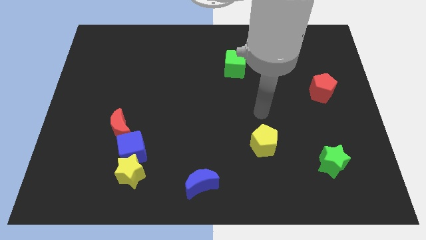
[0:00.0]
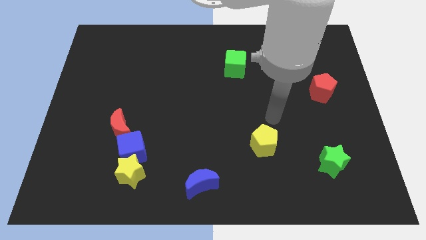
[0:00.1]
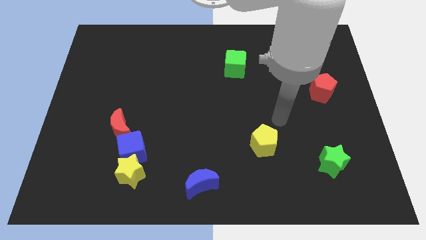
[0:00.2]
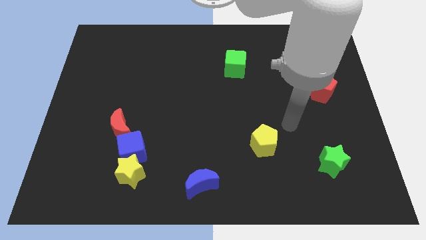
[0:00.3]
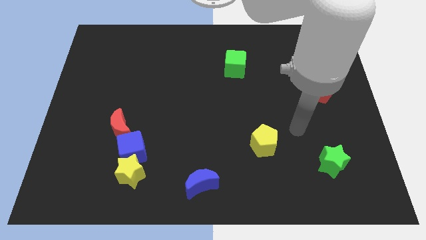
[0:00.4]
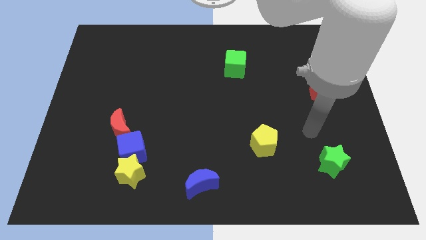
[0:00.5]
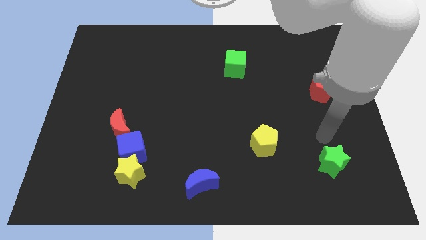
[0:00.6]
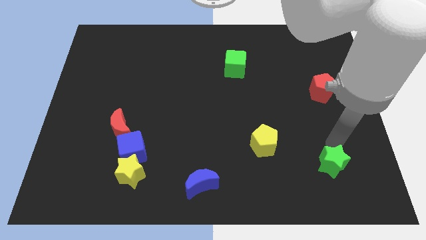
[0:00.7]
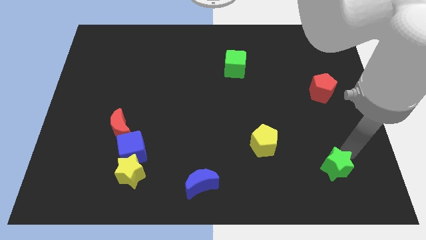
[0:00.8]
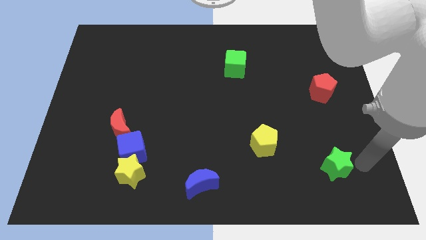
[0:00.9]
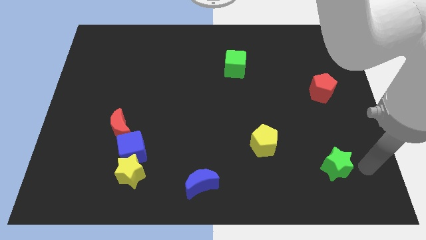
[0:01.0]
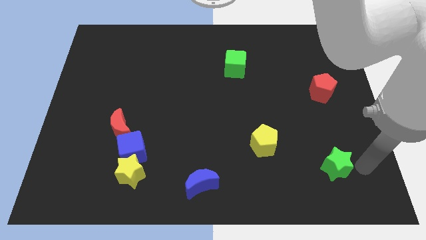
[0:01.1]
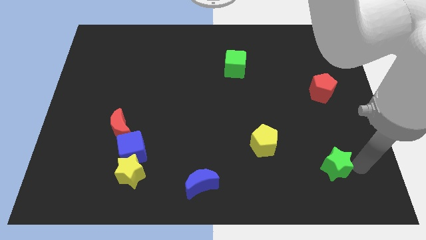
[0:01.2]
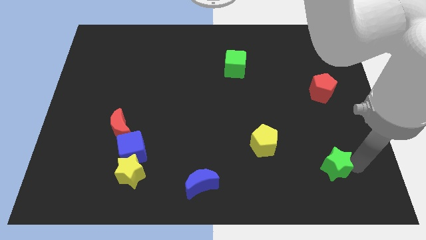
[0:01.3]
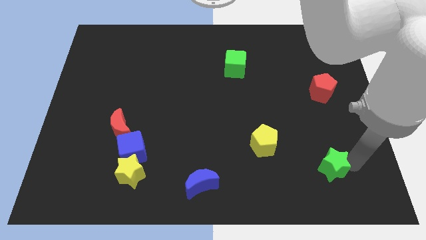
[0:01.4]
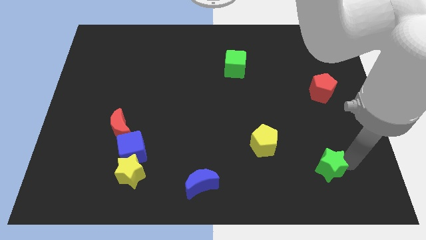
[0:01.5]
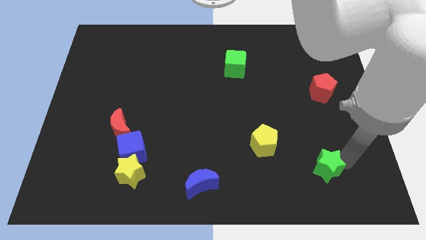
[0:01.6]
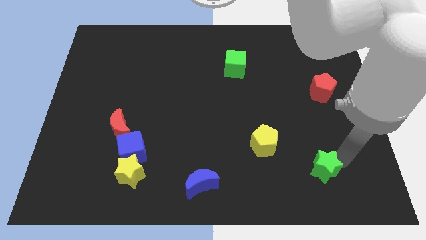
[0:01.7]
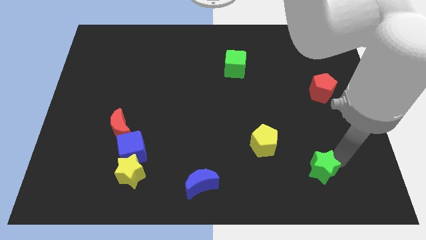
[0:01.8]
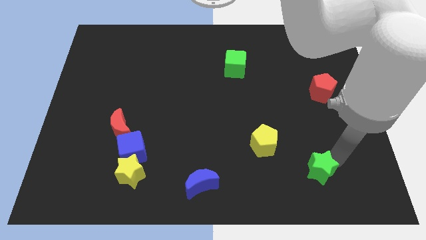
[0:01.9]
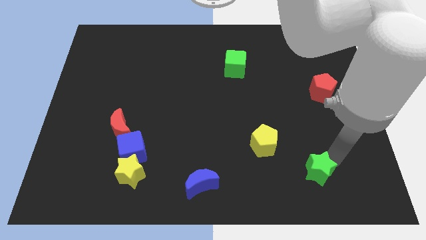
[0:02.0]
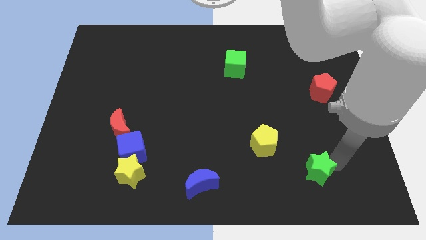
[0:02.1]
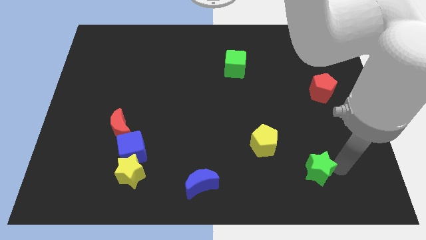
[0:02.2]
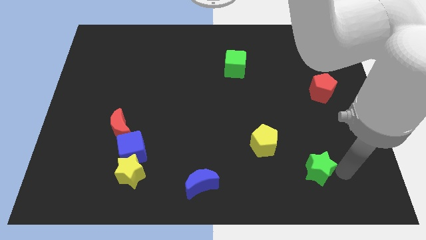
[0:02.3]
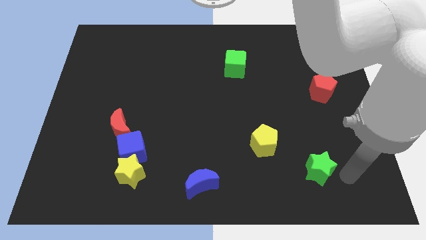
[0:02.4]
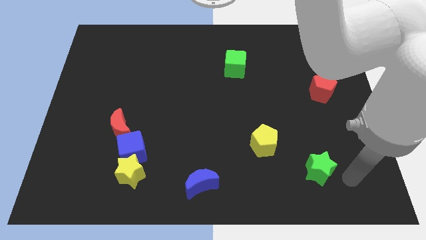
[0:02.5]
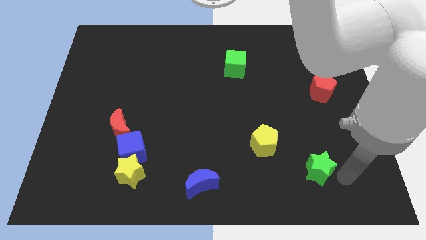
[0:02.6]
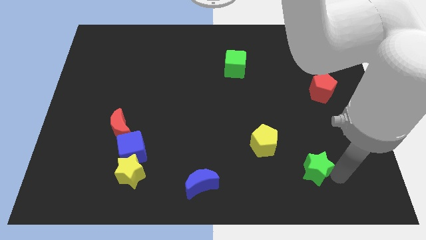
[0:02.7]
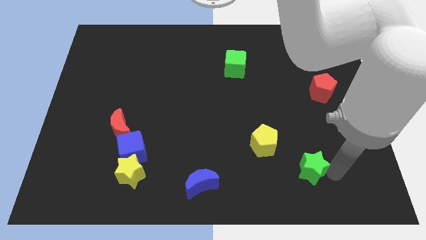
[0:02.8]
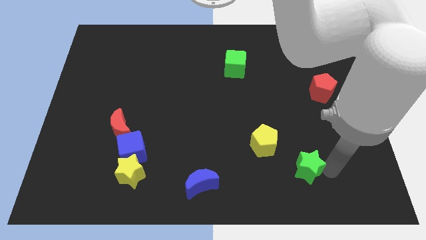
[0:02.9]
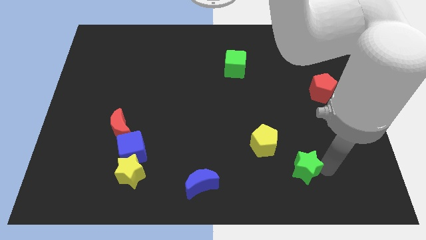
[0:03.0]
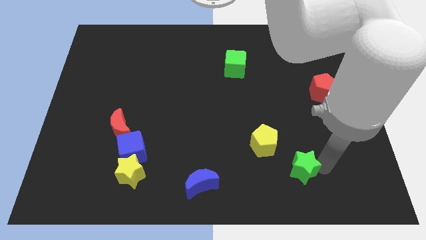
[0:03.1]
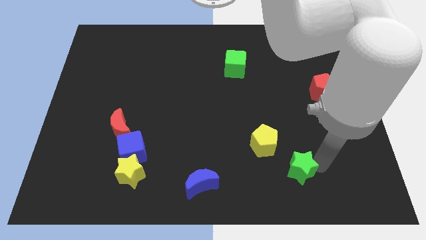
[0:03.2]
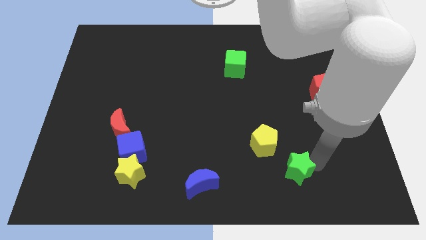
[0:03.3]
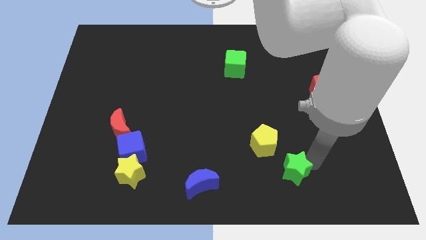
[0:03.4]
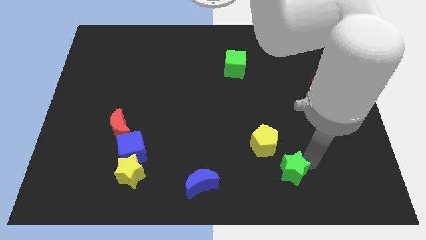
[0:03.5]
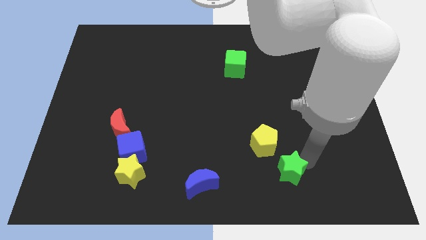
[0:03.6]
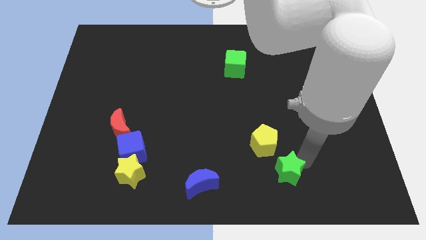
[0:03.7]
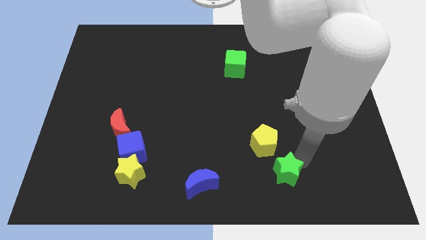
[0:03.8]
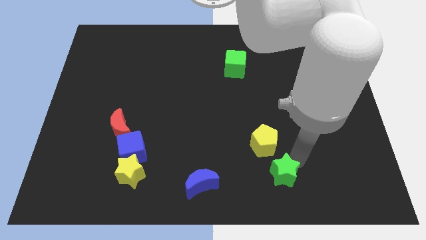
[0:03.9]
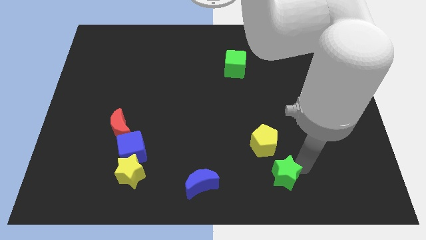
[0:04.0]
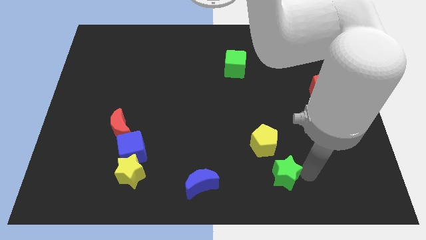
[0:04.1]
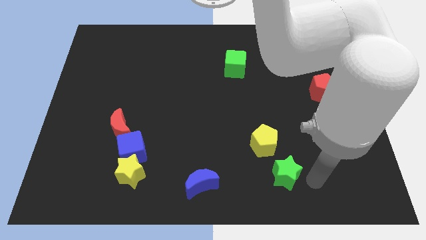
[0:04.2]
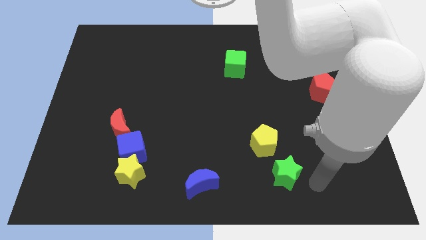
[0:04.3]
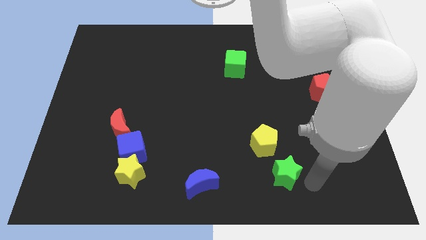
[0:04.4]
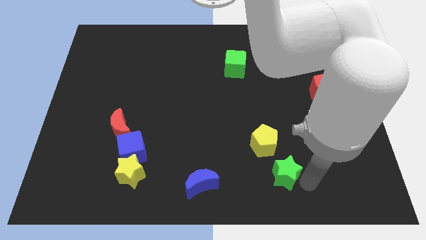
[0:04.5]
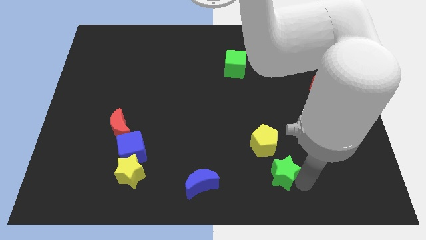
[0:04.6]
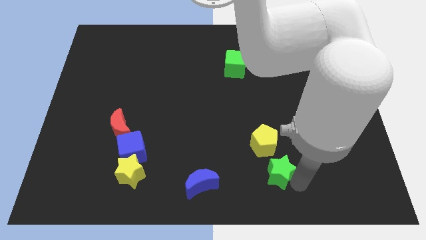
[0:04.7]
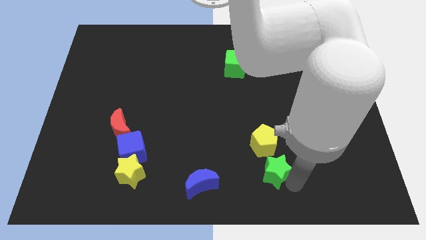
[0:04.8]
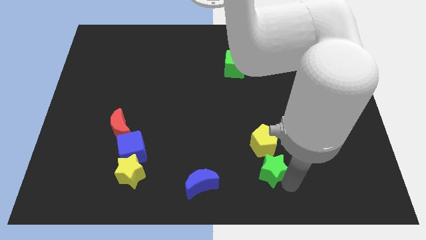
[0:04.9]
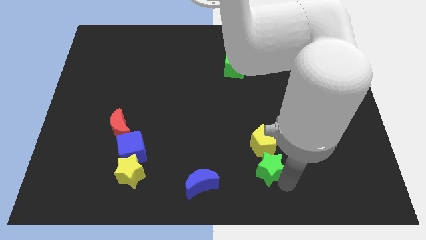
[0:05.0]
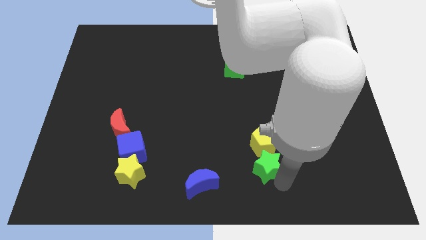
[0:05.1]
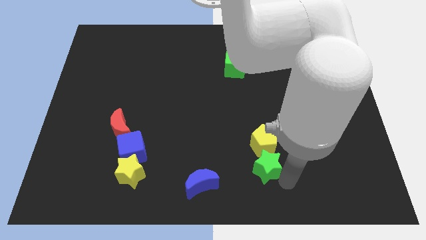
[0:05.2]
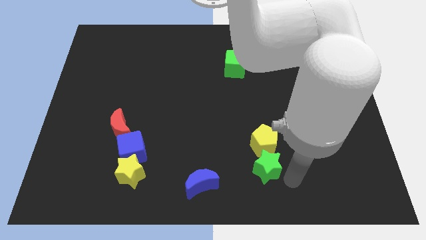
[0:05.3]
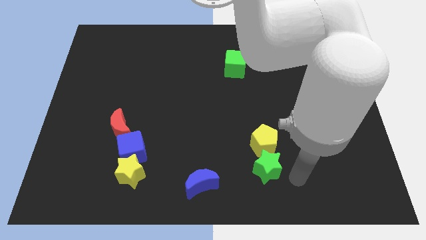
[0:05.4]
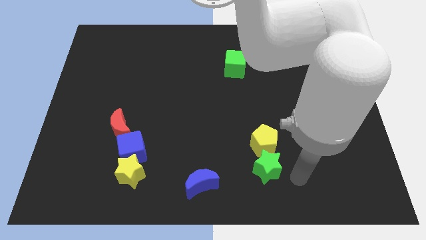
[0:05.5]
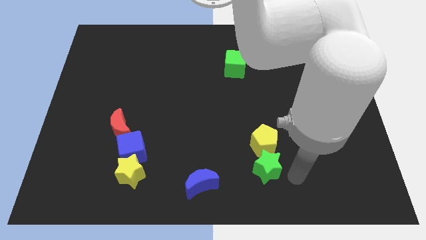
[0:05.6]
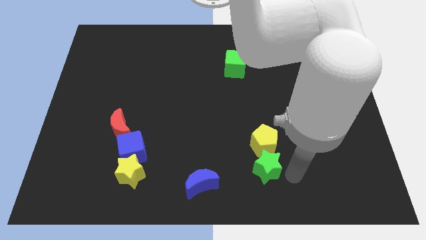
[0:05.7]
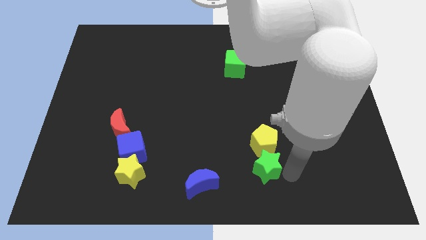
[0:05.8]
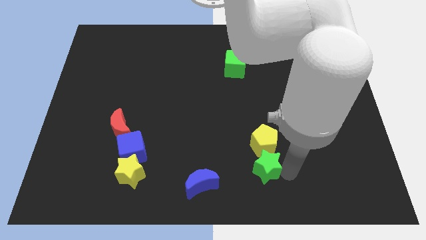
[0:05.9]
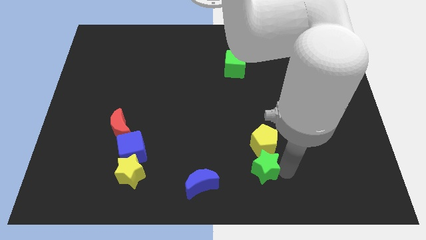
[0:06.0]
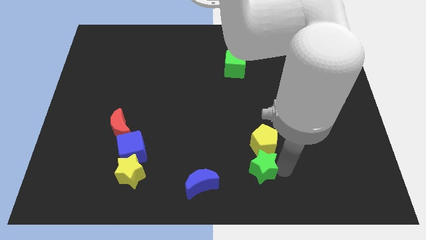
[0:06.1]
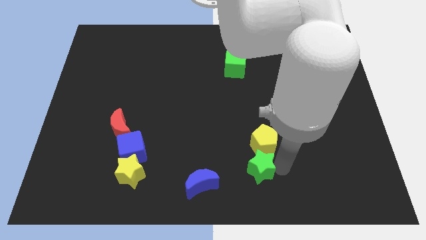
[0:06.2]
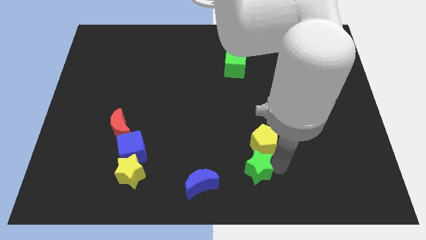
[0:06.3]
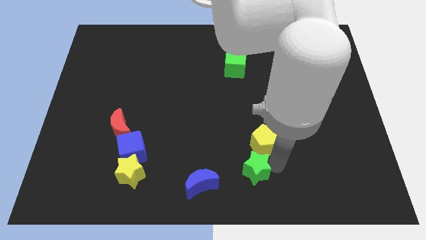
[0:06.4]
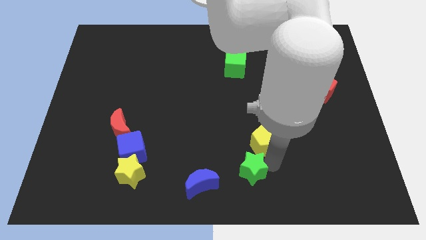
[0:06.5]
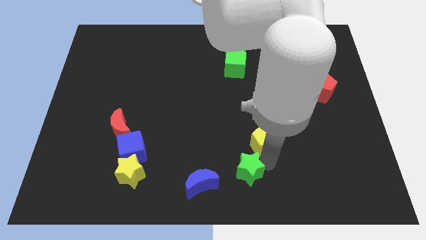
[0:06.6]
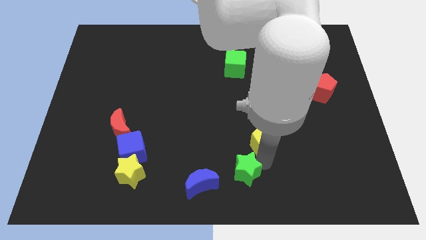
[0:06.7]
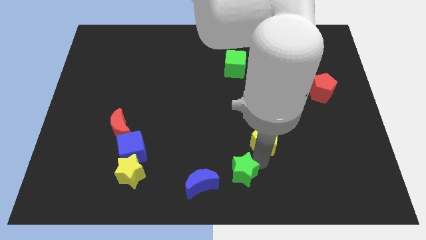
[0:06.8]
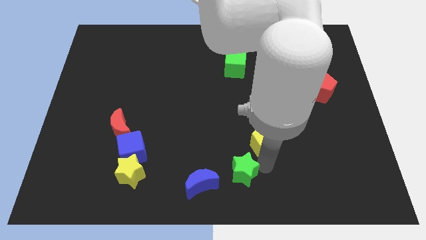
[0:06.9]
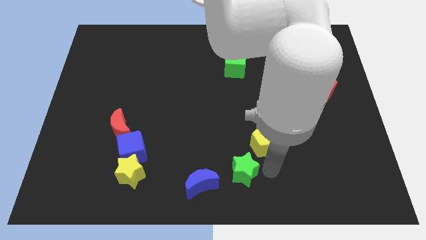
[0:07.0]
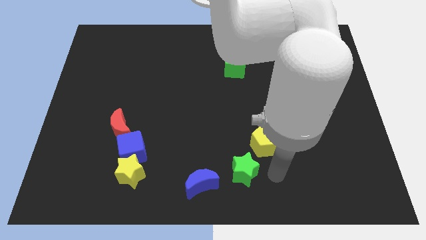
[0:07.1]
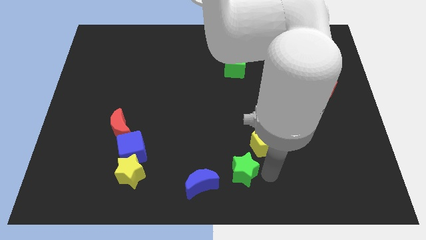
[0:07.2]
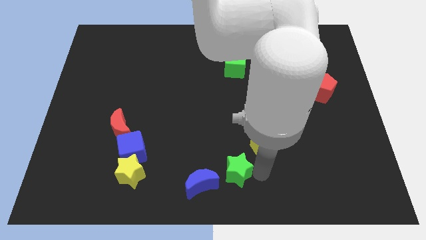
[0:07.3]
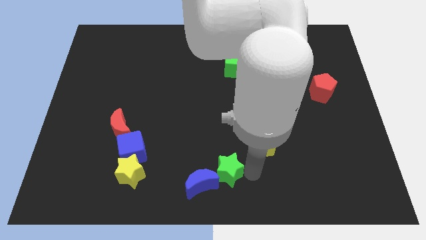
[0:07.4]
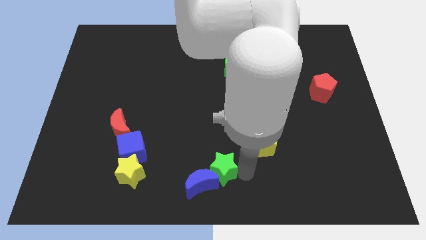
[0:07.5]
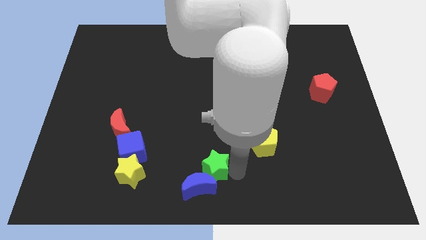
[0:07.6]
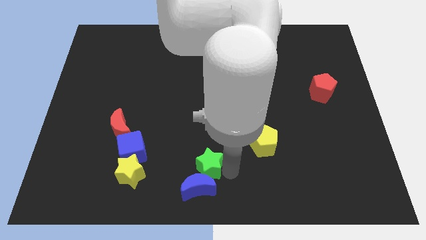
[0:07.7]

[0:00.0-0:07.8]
put the green star right of the yellow star

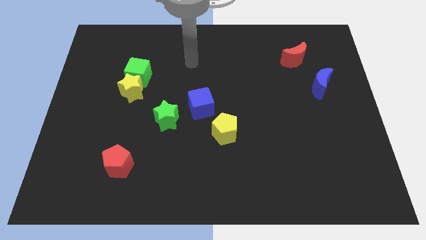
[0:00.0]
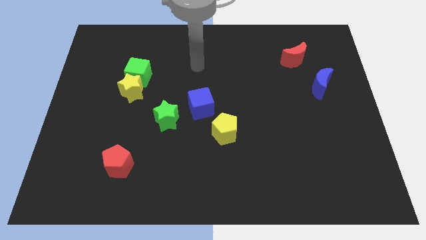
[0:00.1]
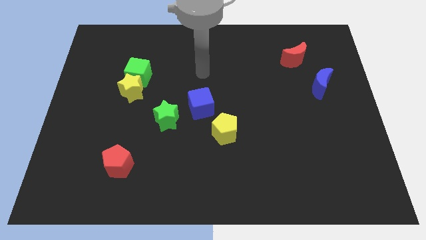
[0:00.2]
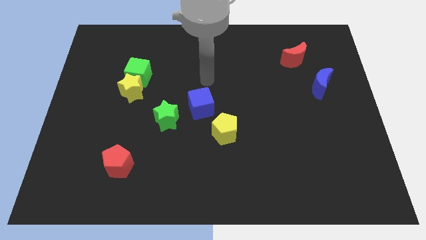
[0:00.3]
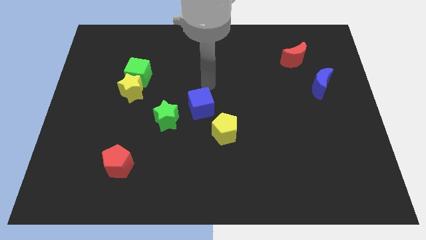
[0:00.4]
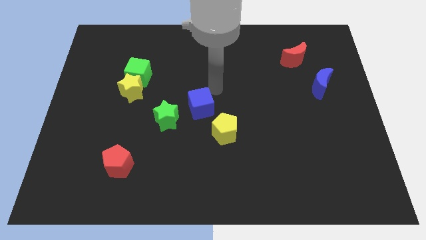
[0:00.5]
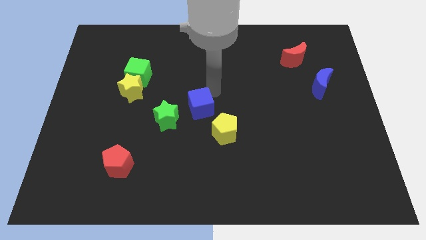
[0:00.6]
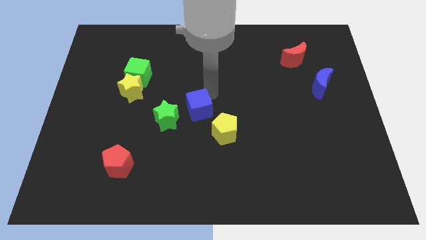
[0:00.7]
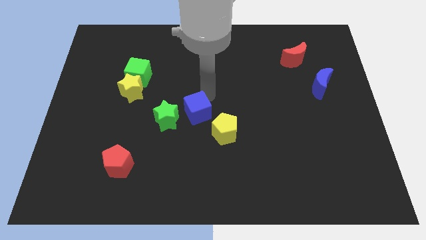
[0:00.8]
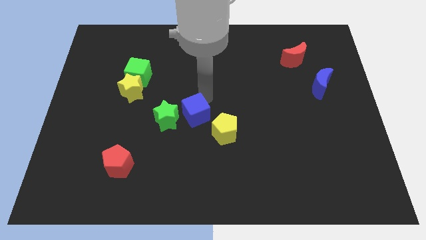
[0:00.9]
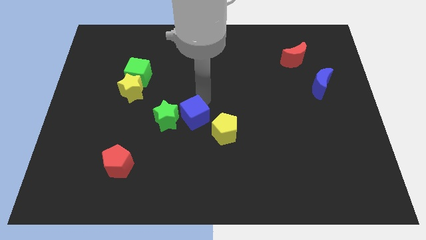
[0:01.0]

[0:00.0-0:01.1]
move the blue cube left of the yellow pentagon
